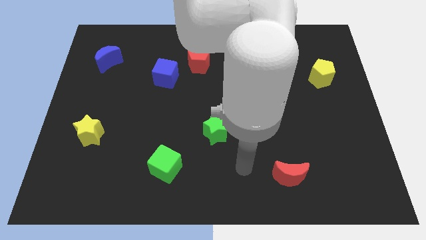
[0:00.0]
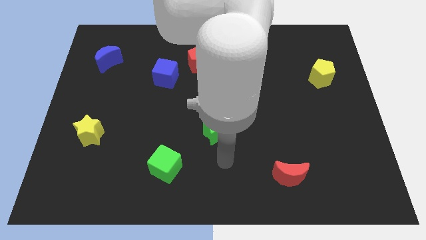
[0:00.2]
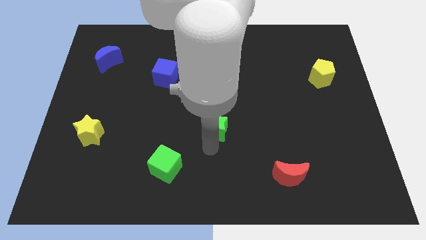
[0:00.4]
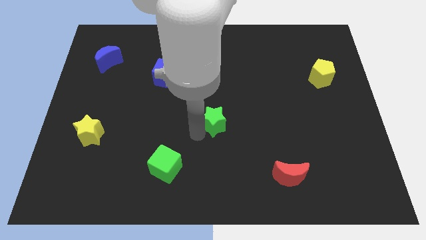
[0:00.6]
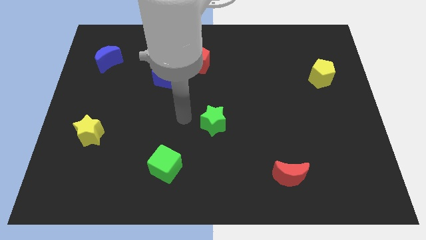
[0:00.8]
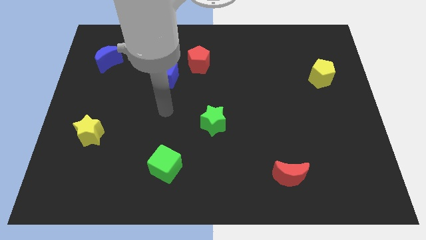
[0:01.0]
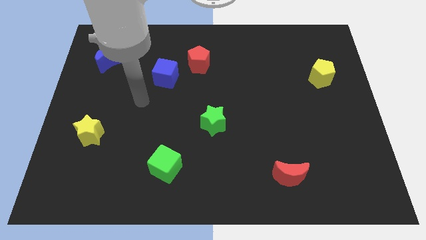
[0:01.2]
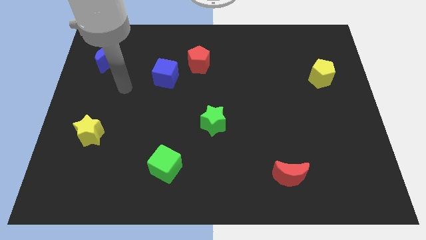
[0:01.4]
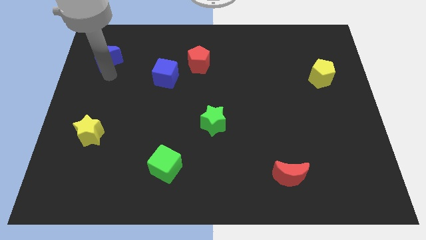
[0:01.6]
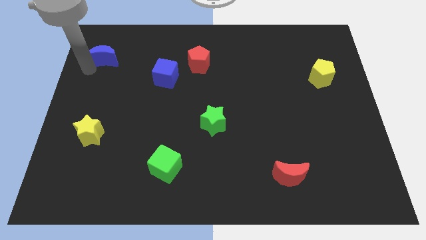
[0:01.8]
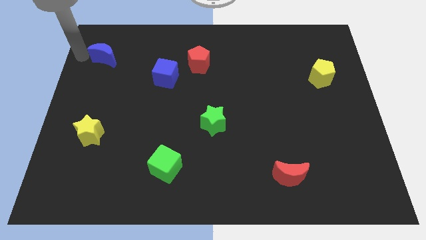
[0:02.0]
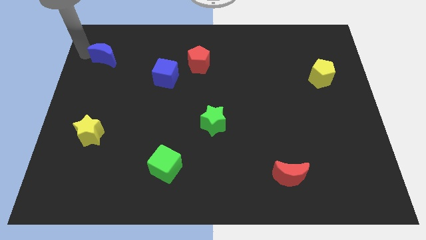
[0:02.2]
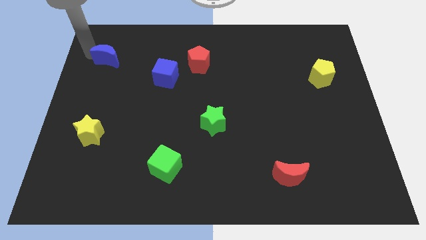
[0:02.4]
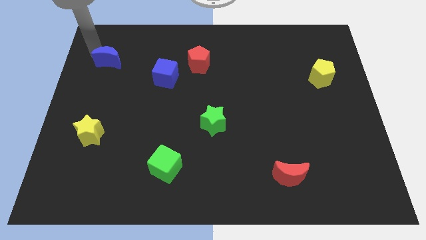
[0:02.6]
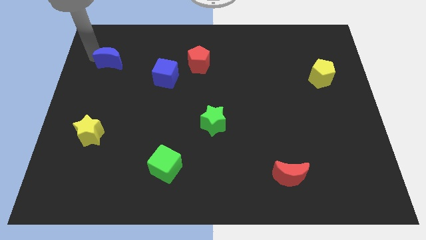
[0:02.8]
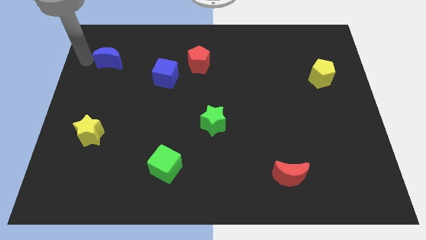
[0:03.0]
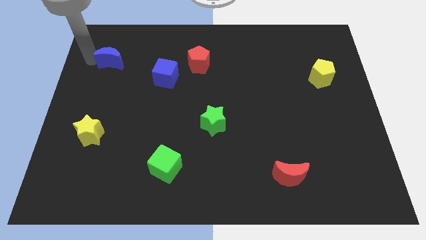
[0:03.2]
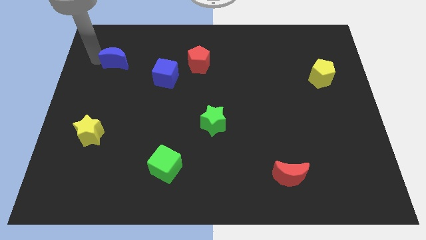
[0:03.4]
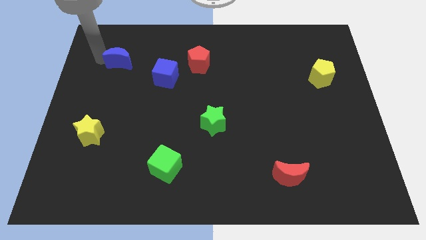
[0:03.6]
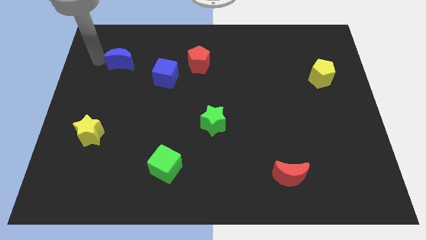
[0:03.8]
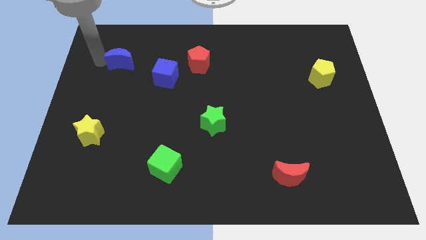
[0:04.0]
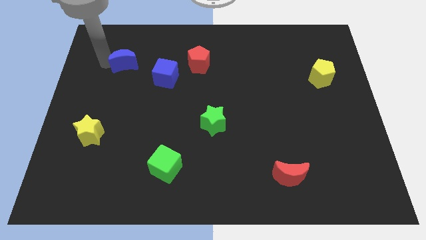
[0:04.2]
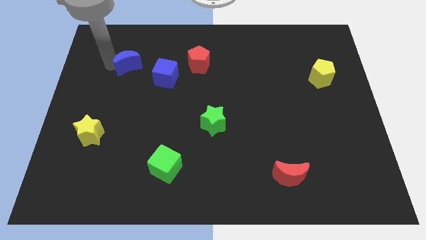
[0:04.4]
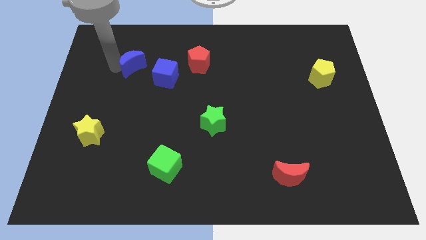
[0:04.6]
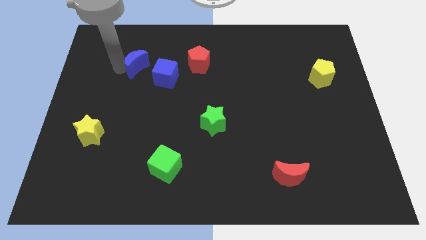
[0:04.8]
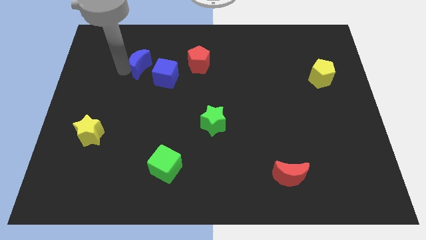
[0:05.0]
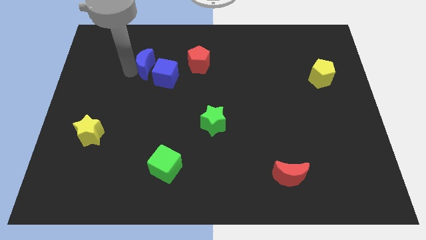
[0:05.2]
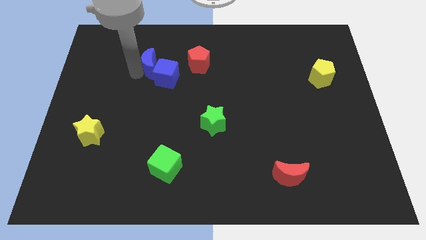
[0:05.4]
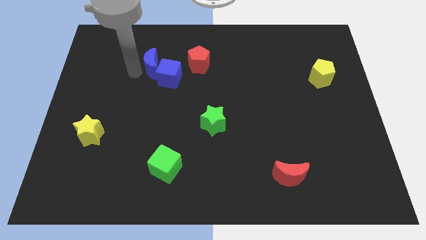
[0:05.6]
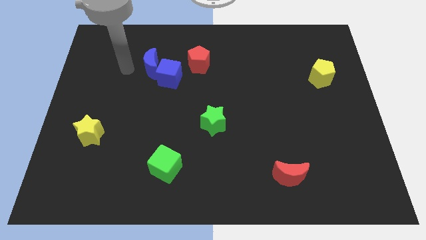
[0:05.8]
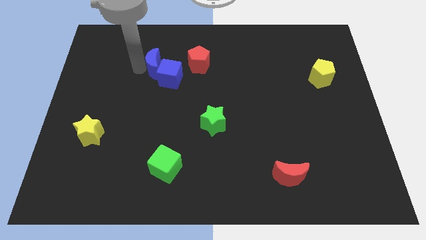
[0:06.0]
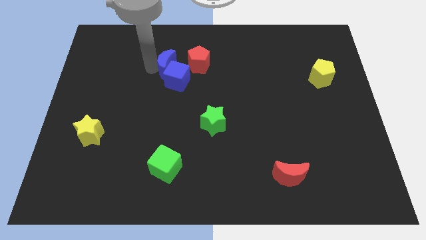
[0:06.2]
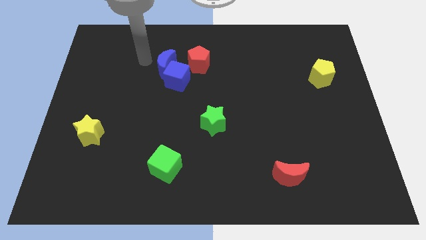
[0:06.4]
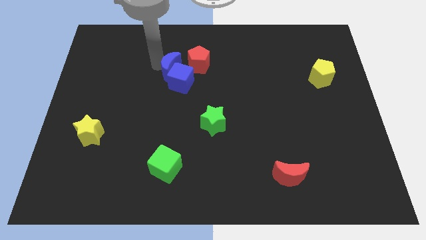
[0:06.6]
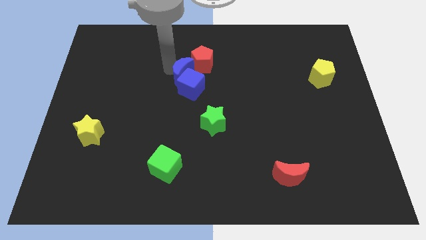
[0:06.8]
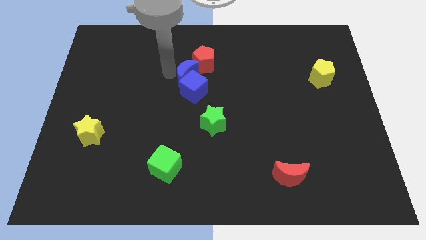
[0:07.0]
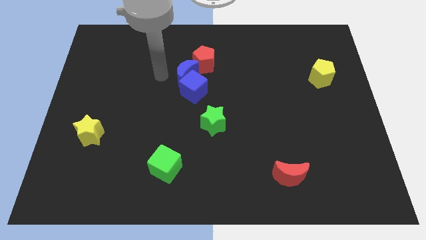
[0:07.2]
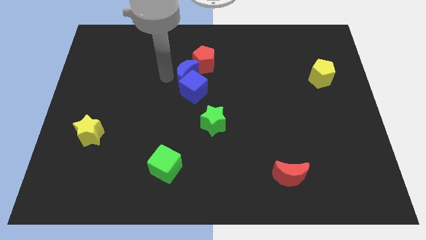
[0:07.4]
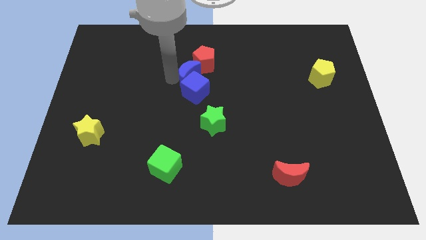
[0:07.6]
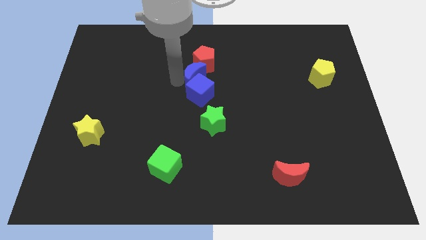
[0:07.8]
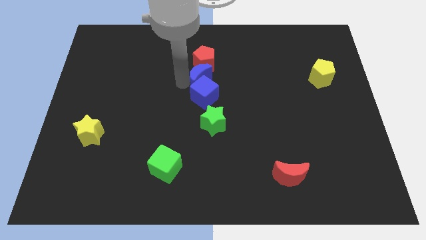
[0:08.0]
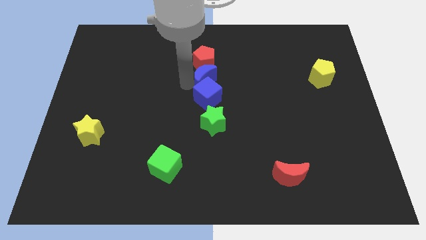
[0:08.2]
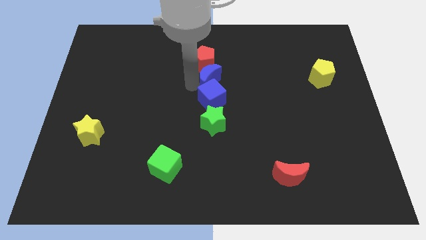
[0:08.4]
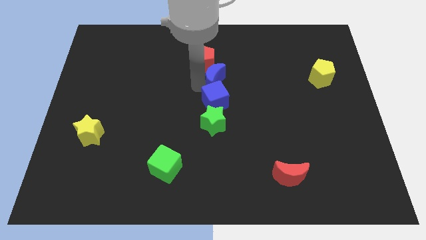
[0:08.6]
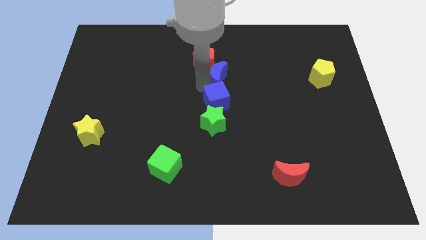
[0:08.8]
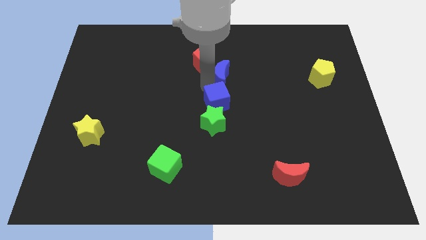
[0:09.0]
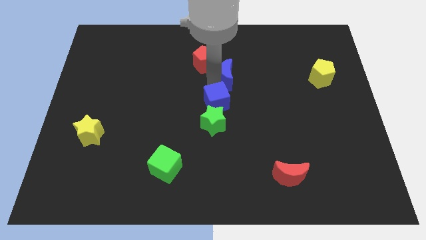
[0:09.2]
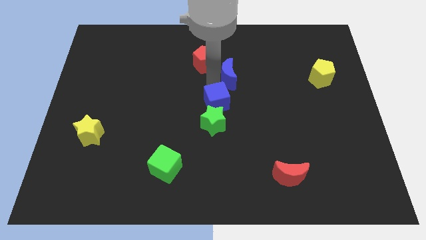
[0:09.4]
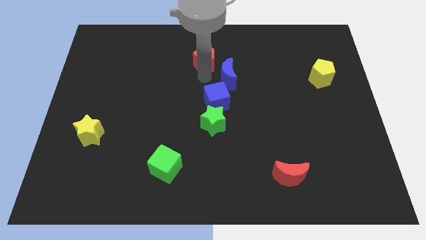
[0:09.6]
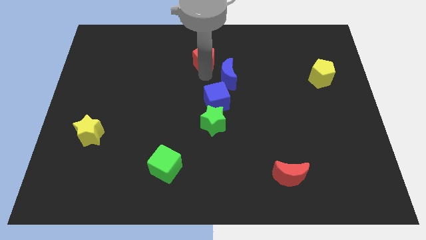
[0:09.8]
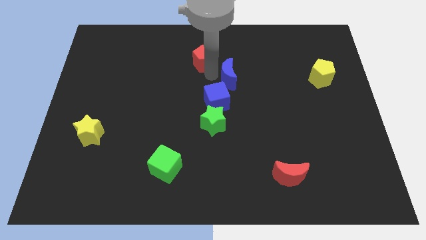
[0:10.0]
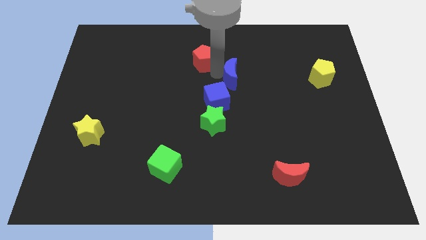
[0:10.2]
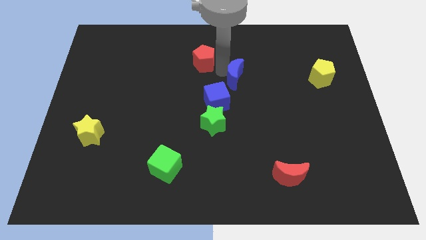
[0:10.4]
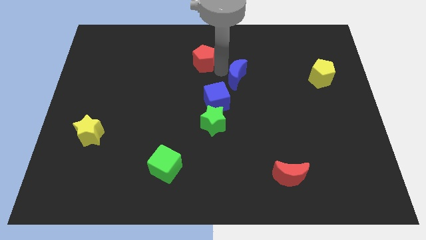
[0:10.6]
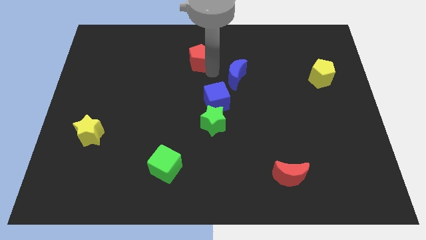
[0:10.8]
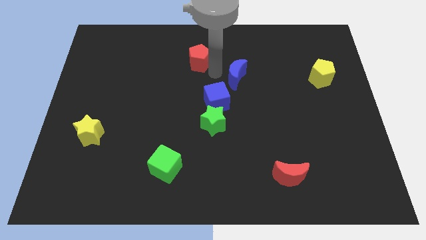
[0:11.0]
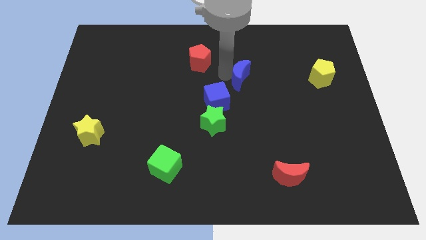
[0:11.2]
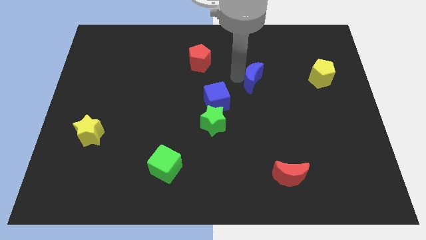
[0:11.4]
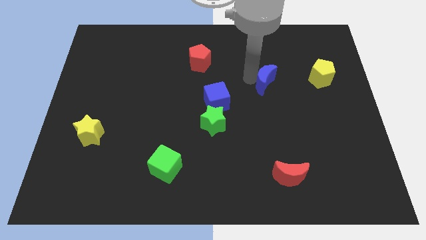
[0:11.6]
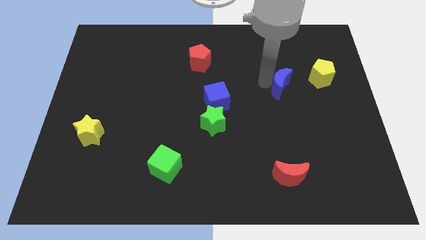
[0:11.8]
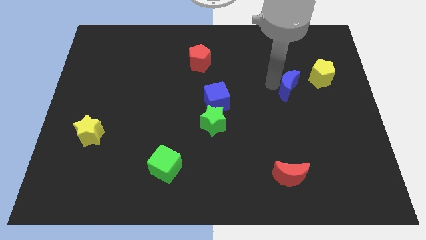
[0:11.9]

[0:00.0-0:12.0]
move the blue moon diagonally down and to the left of the yellow pentagon
